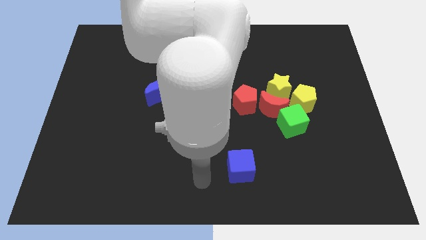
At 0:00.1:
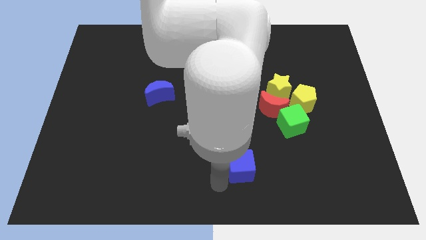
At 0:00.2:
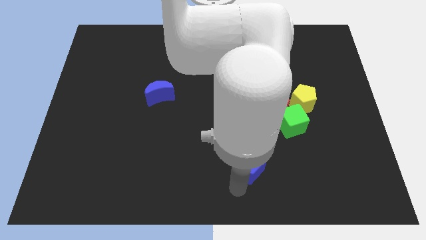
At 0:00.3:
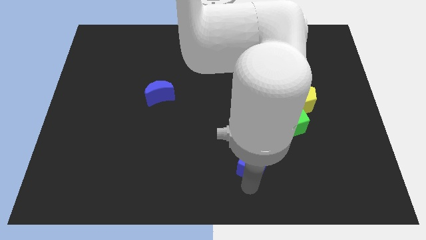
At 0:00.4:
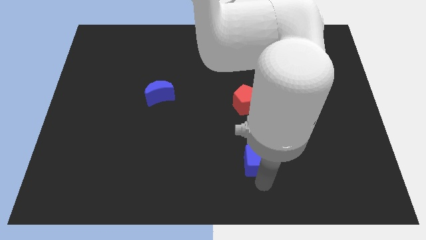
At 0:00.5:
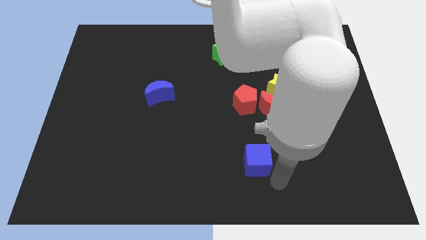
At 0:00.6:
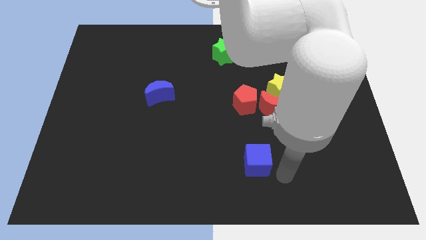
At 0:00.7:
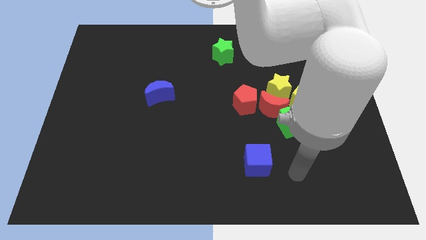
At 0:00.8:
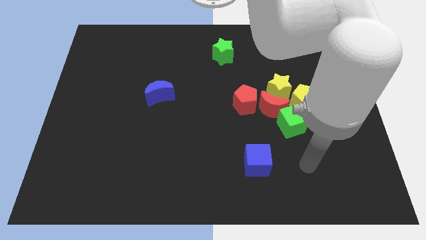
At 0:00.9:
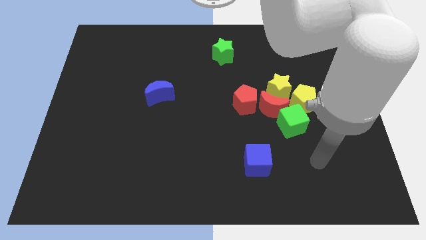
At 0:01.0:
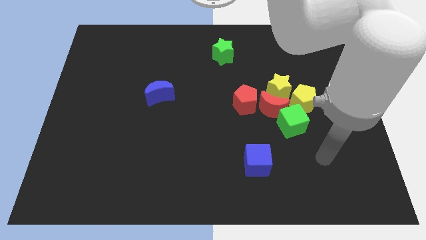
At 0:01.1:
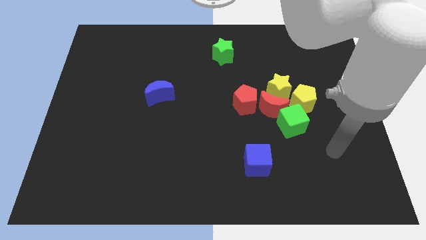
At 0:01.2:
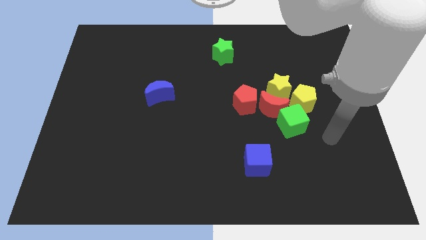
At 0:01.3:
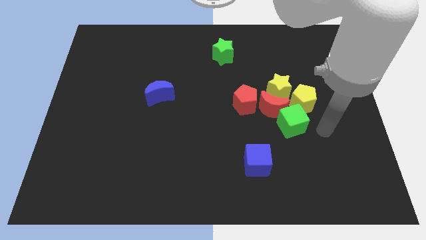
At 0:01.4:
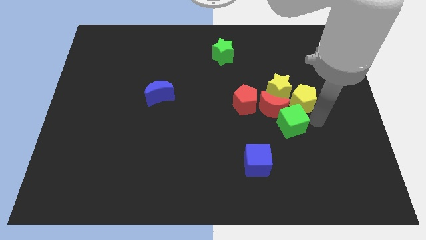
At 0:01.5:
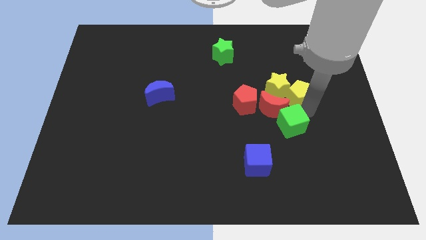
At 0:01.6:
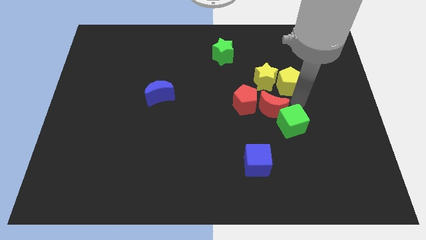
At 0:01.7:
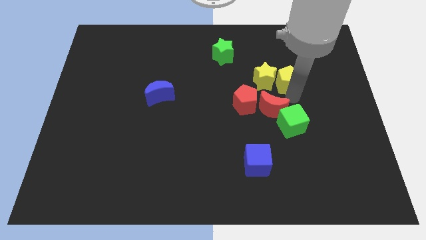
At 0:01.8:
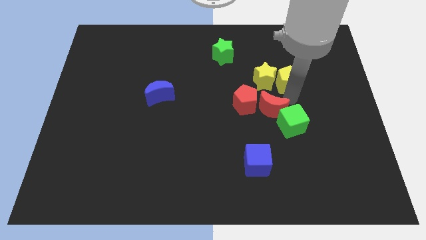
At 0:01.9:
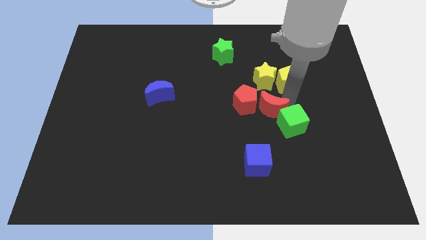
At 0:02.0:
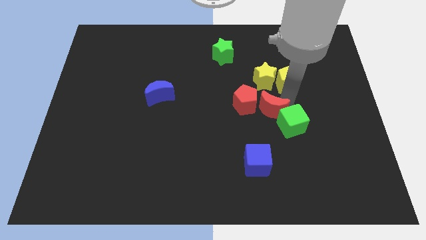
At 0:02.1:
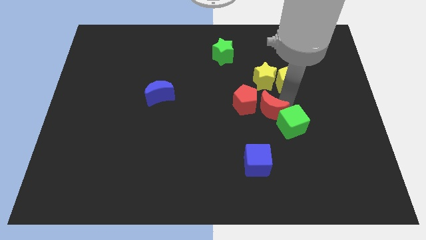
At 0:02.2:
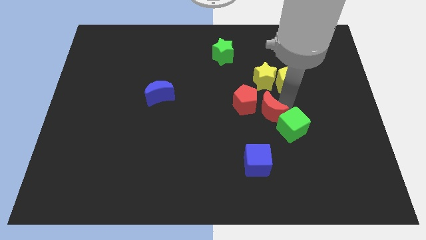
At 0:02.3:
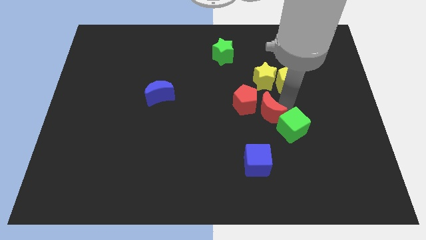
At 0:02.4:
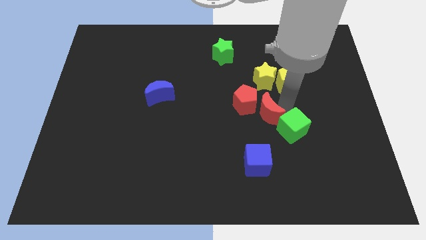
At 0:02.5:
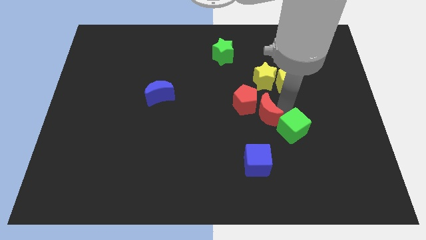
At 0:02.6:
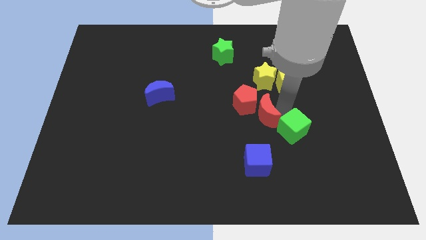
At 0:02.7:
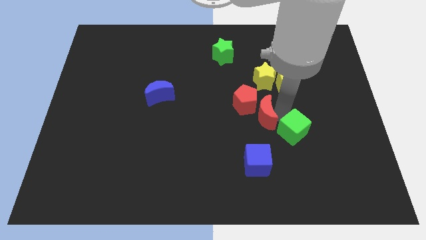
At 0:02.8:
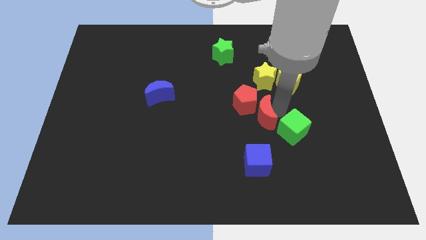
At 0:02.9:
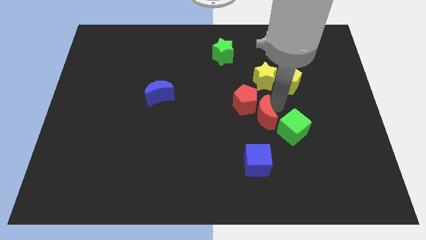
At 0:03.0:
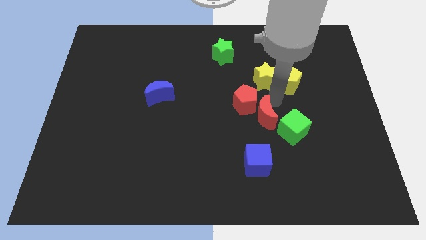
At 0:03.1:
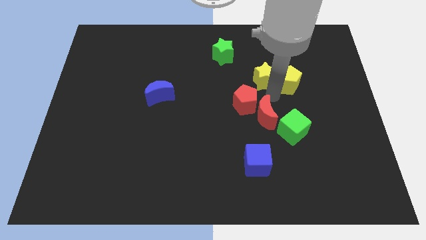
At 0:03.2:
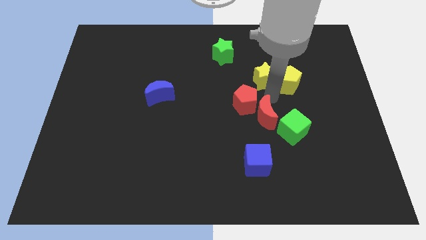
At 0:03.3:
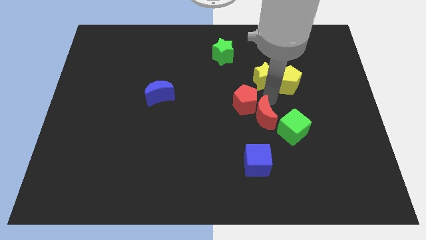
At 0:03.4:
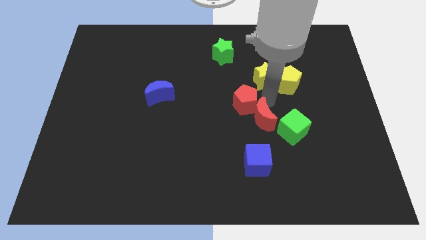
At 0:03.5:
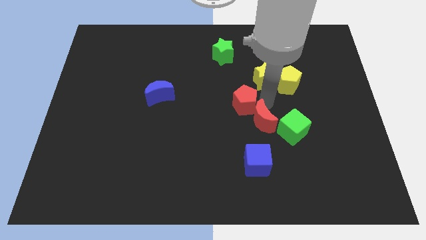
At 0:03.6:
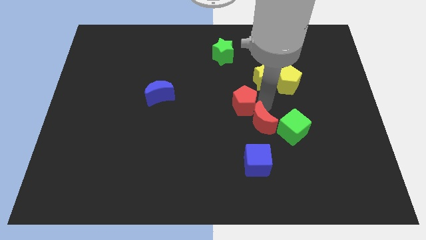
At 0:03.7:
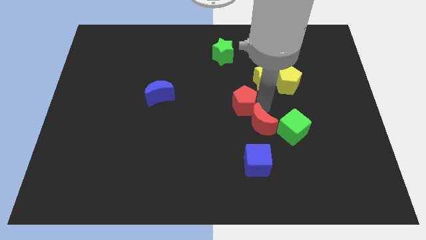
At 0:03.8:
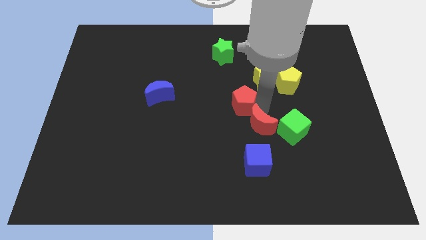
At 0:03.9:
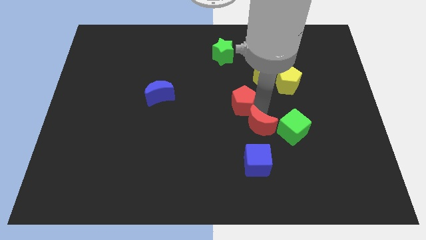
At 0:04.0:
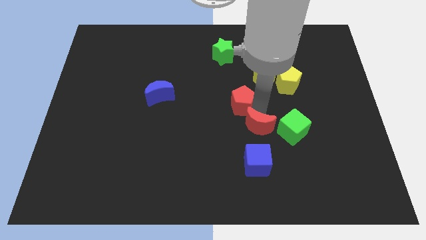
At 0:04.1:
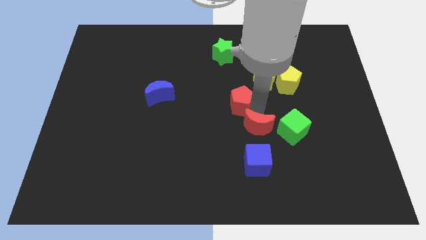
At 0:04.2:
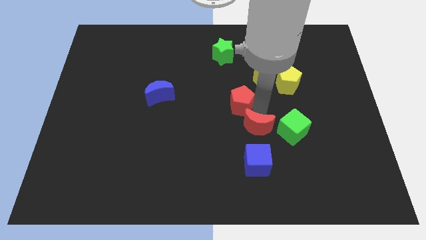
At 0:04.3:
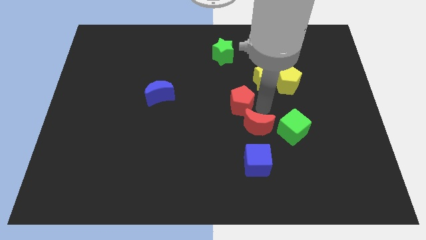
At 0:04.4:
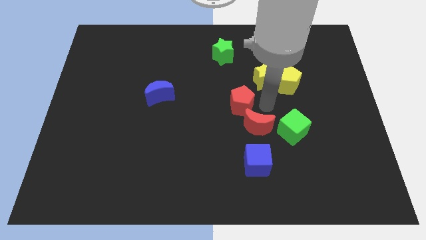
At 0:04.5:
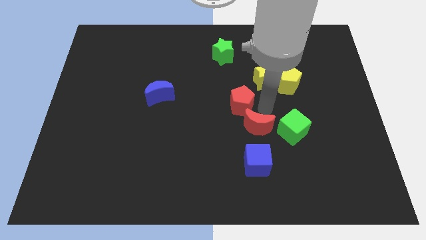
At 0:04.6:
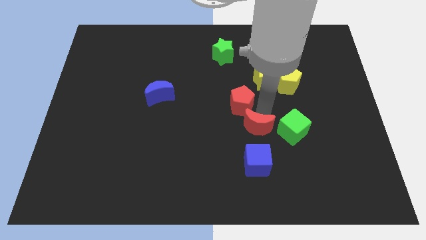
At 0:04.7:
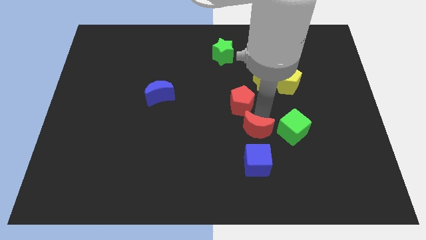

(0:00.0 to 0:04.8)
move the red moon away from the clump

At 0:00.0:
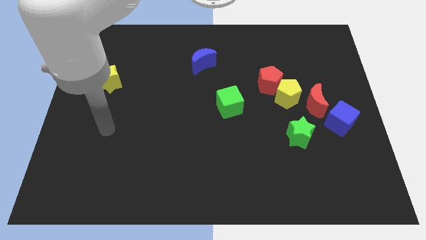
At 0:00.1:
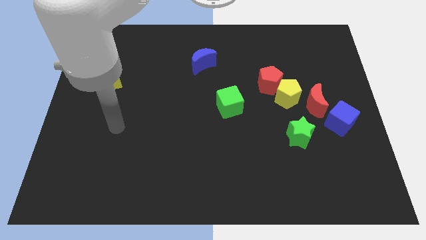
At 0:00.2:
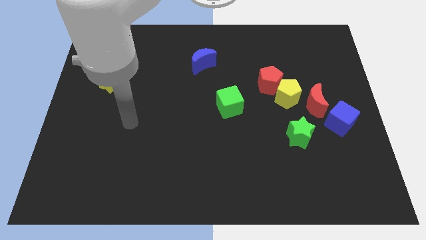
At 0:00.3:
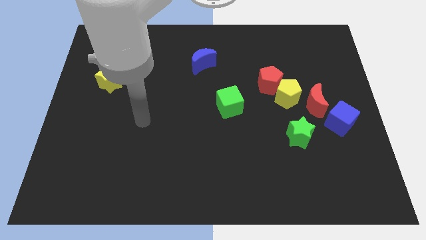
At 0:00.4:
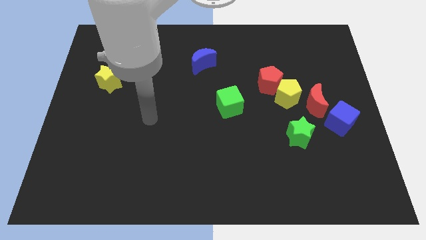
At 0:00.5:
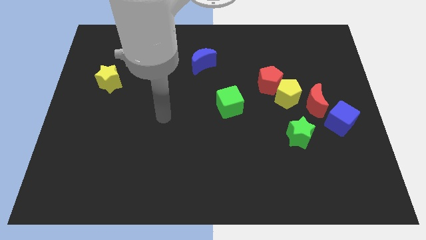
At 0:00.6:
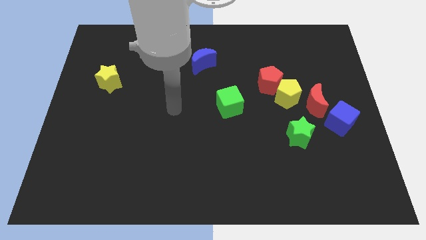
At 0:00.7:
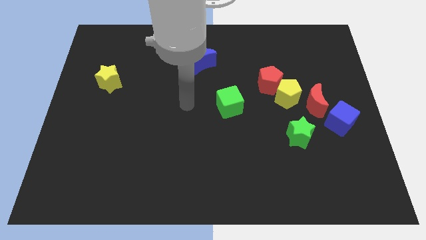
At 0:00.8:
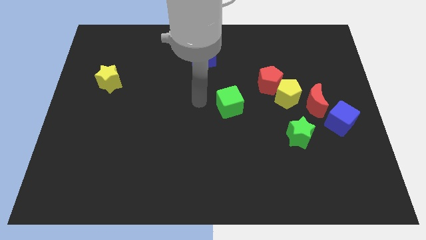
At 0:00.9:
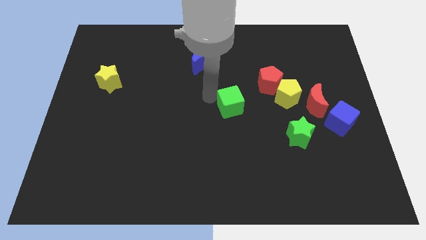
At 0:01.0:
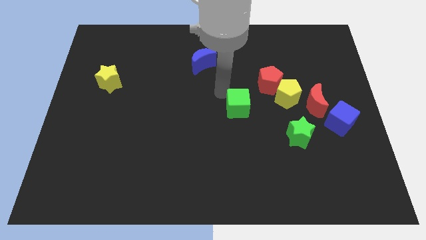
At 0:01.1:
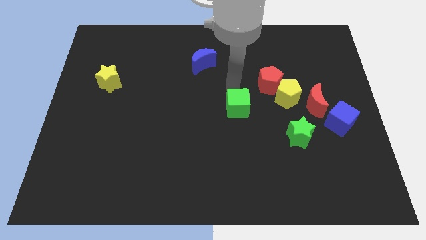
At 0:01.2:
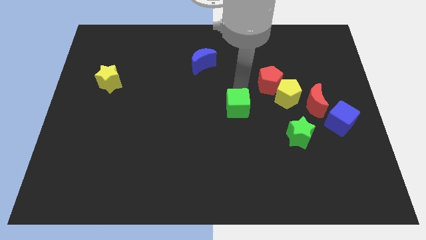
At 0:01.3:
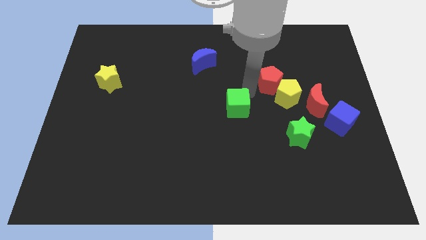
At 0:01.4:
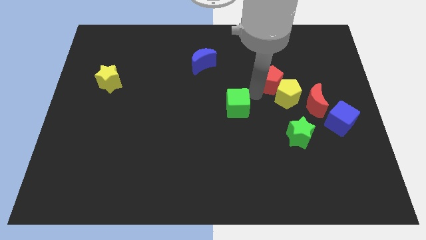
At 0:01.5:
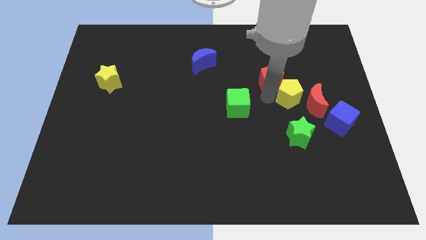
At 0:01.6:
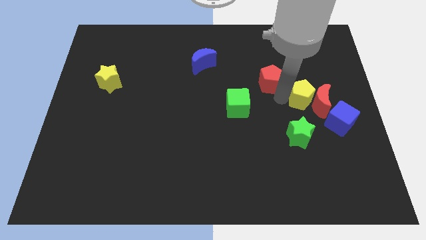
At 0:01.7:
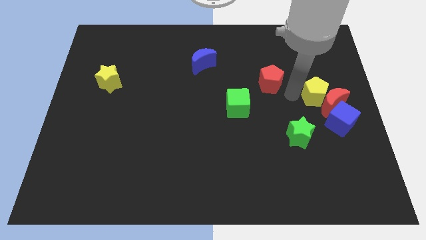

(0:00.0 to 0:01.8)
move the red pentagon away from the yellow pentagon

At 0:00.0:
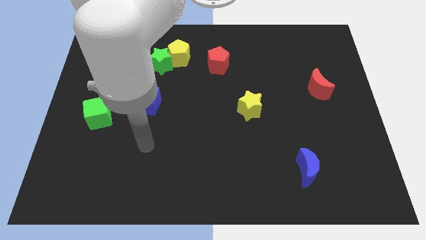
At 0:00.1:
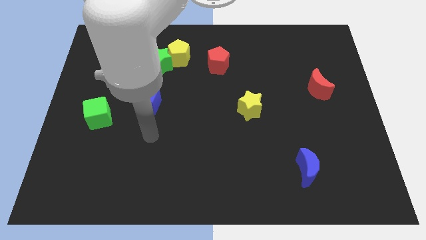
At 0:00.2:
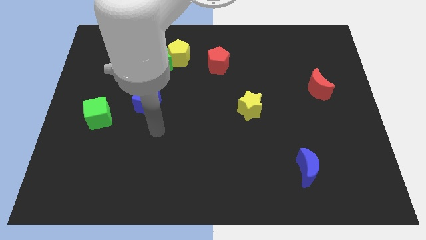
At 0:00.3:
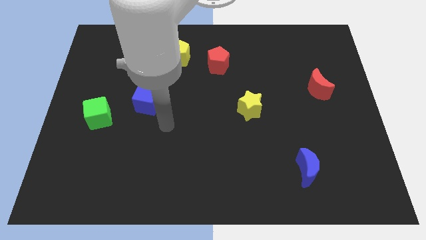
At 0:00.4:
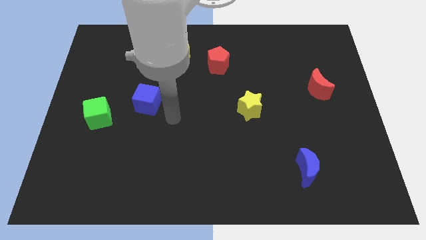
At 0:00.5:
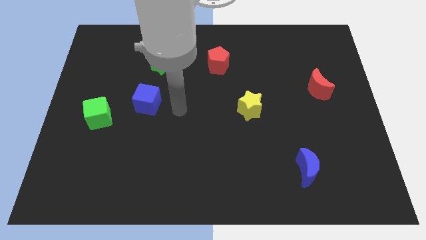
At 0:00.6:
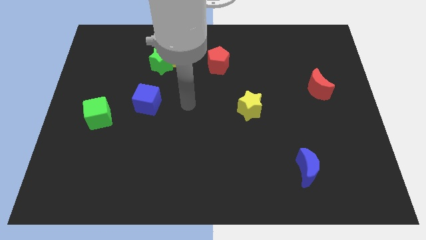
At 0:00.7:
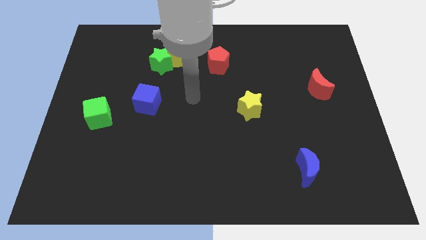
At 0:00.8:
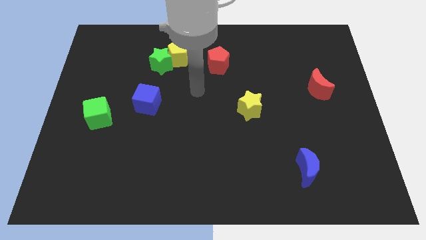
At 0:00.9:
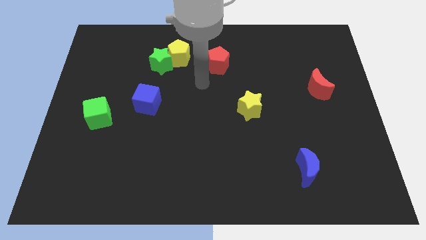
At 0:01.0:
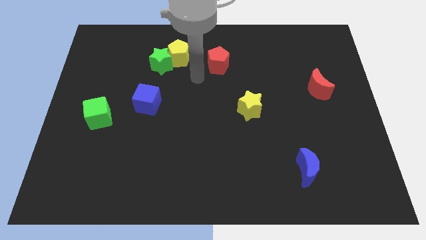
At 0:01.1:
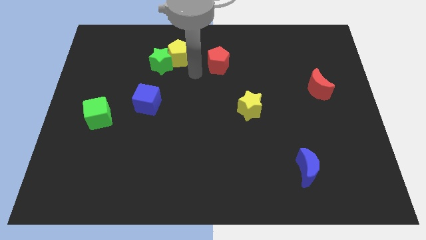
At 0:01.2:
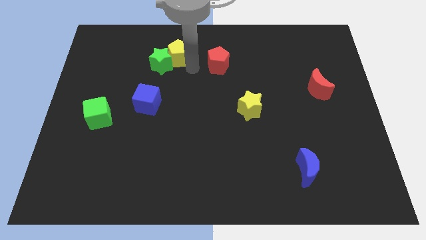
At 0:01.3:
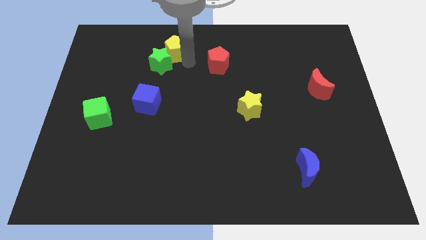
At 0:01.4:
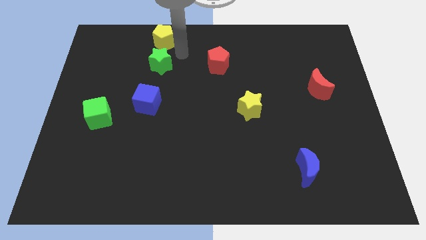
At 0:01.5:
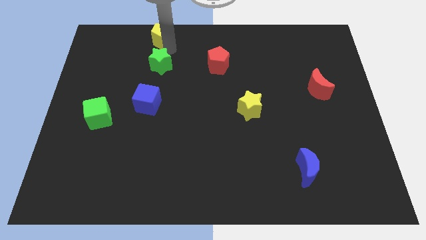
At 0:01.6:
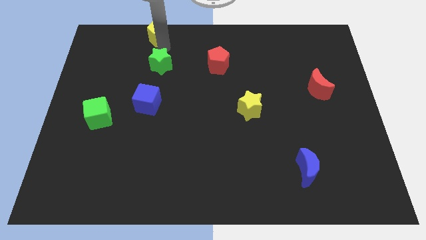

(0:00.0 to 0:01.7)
move the green star away from the yellow pentagon

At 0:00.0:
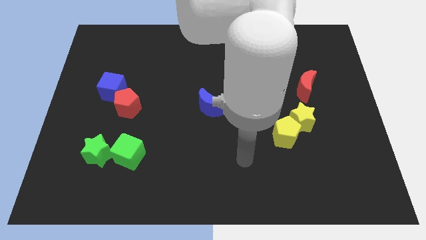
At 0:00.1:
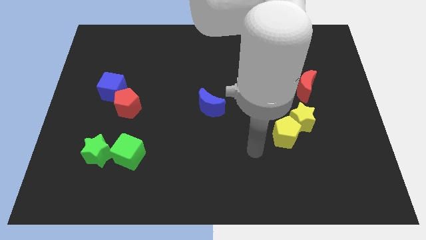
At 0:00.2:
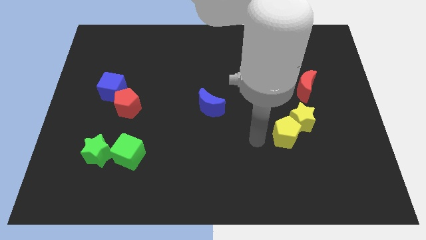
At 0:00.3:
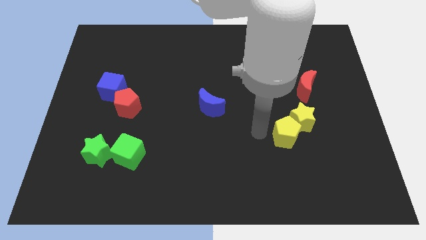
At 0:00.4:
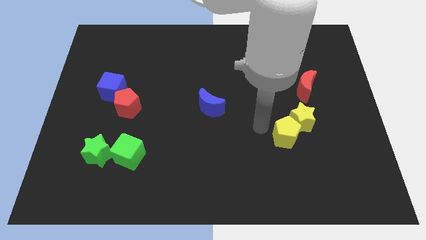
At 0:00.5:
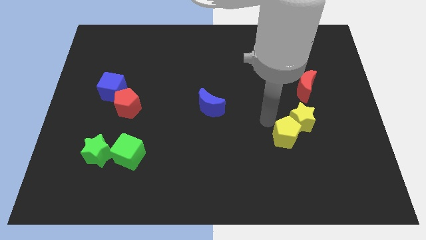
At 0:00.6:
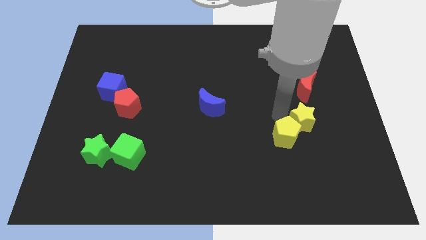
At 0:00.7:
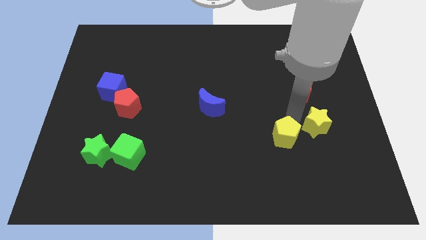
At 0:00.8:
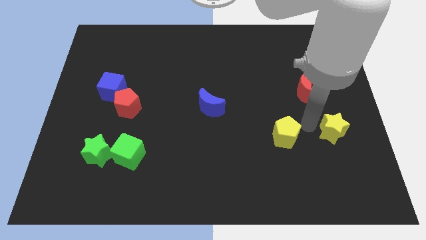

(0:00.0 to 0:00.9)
pull the yellow pentagon apart from the yellow star

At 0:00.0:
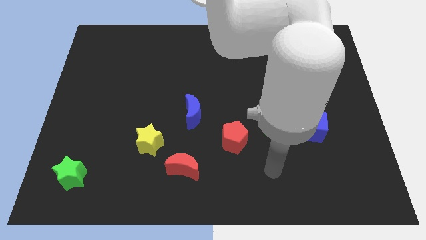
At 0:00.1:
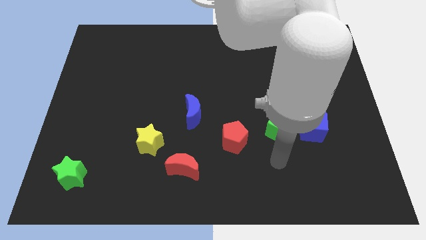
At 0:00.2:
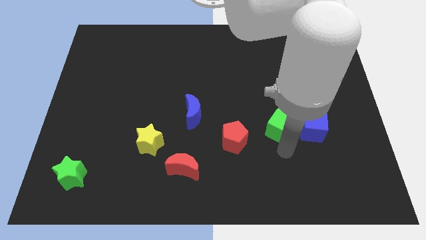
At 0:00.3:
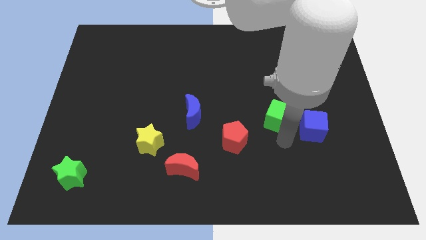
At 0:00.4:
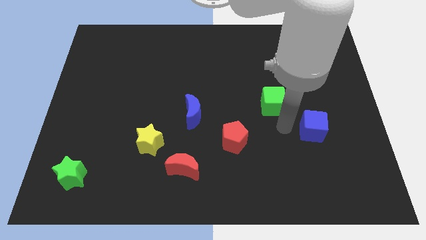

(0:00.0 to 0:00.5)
pull the blue cube apart from the green cube
